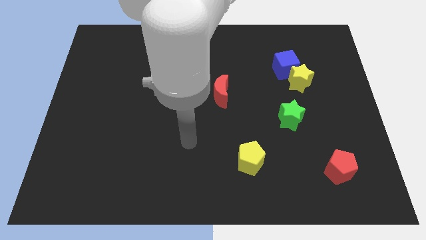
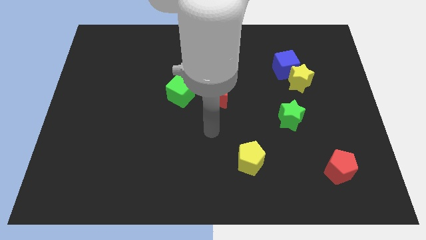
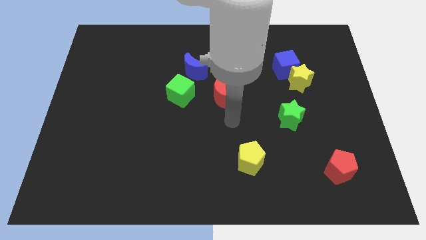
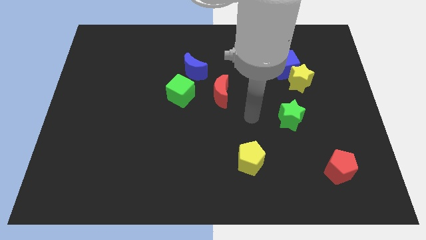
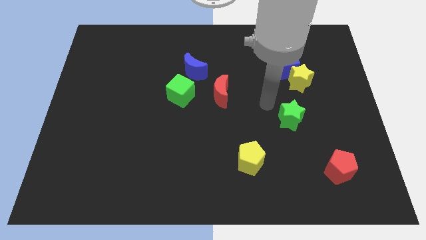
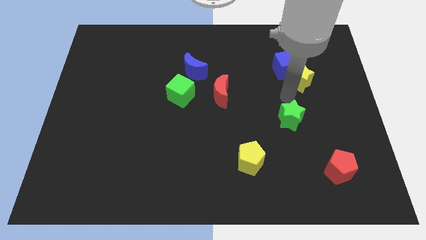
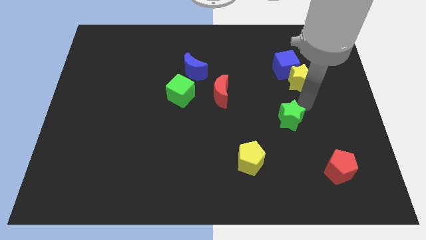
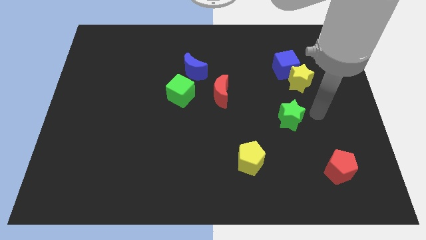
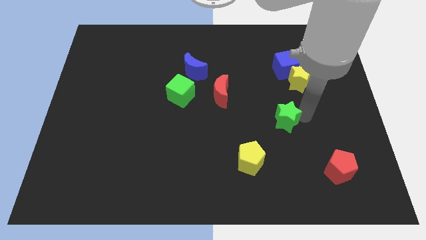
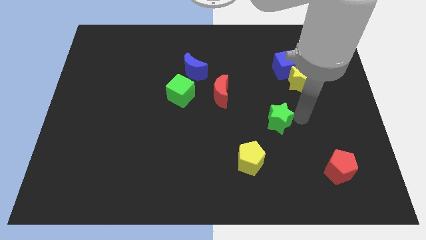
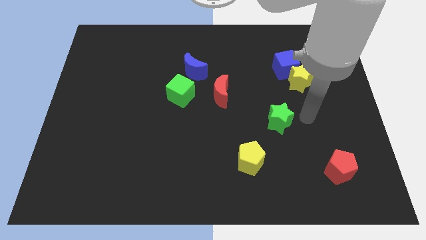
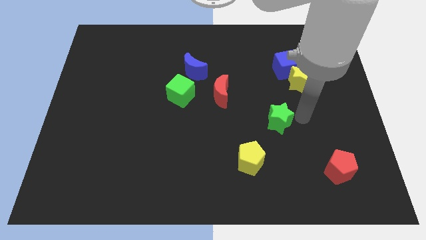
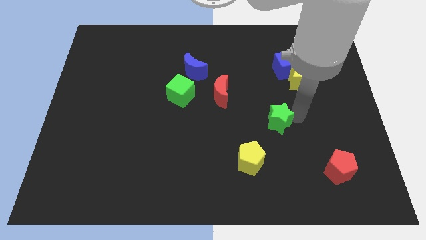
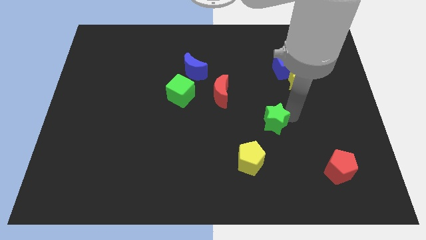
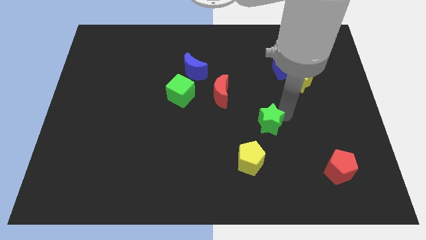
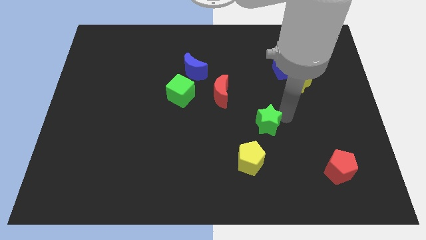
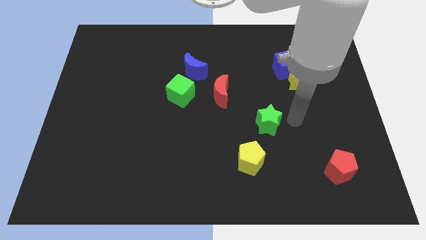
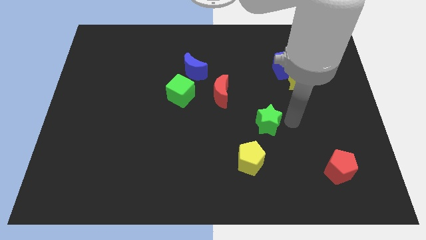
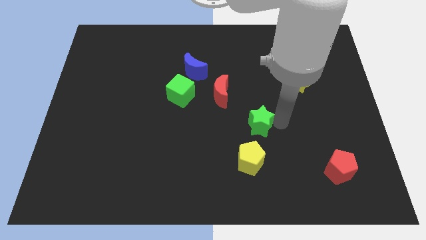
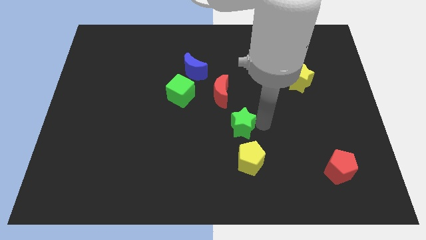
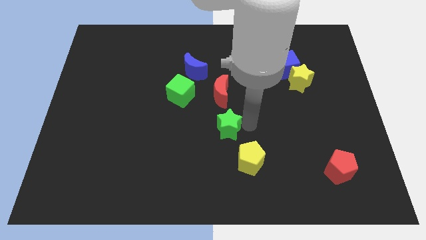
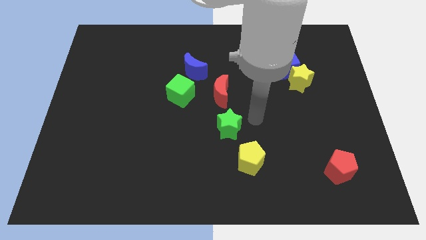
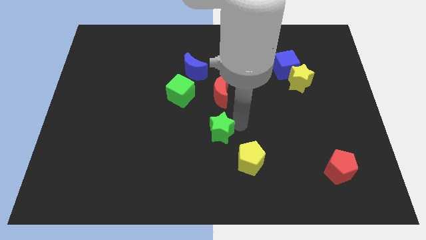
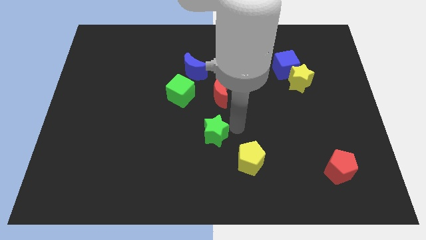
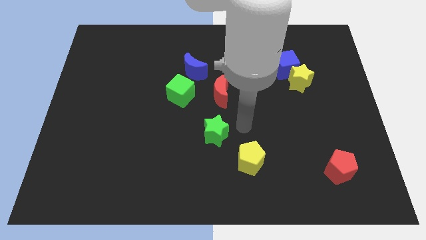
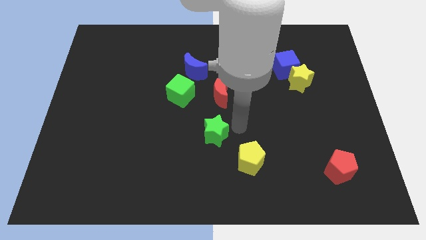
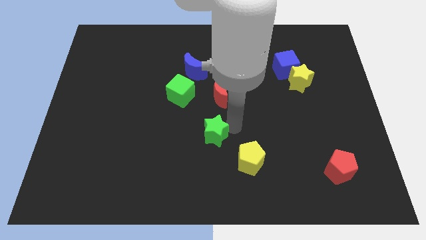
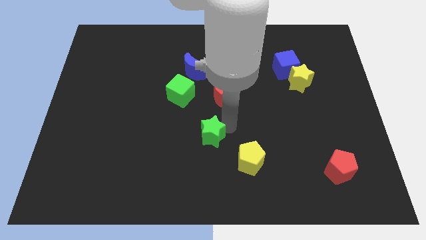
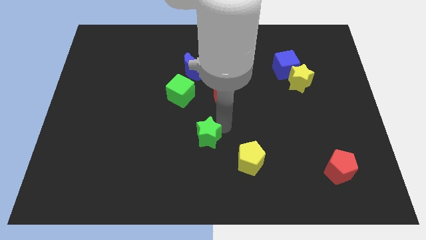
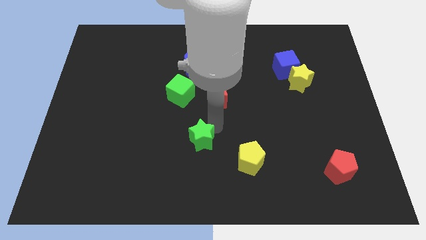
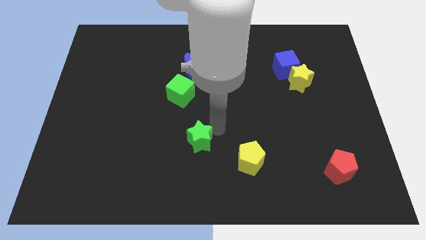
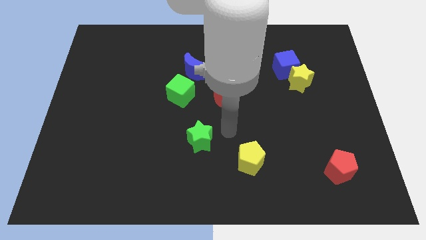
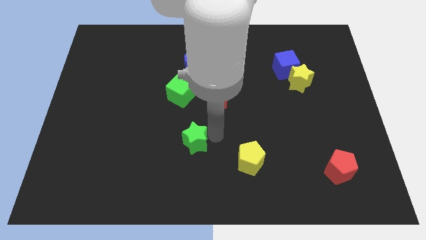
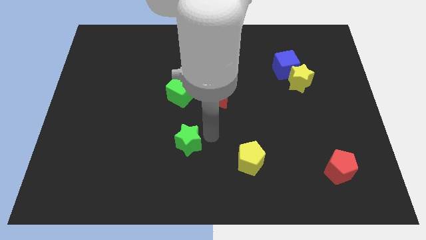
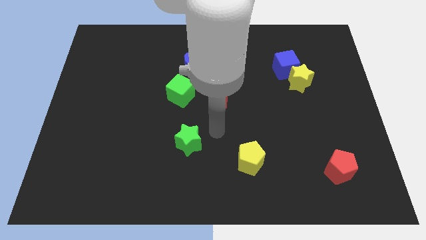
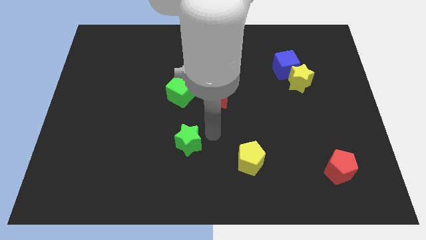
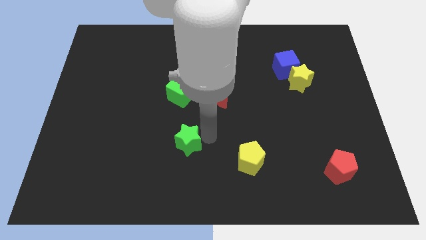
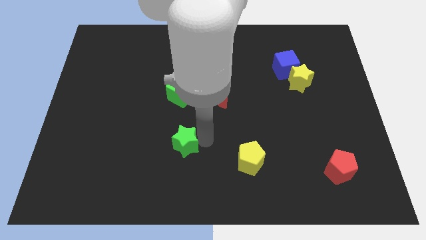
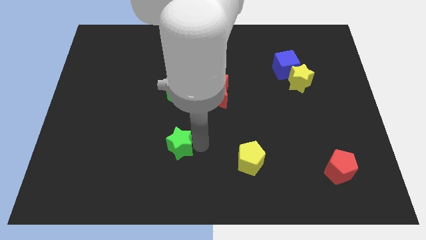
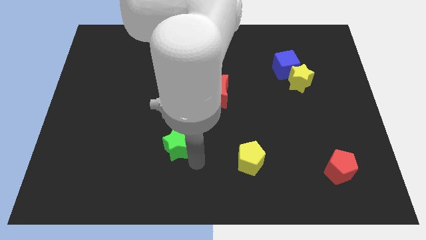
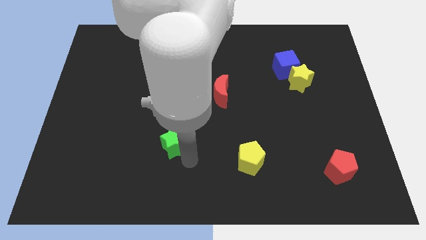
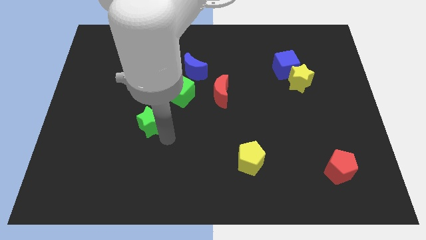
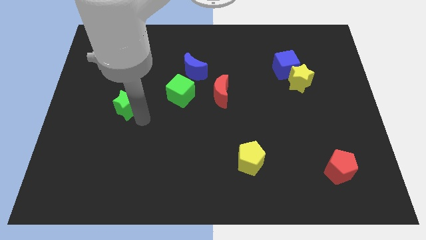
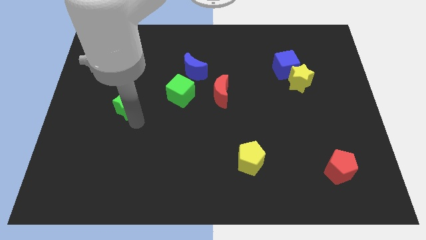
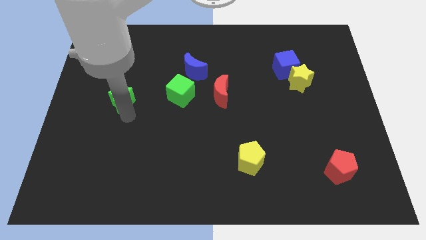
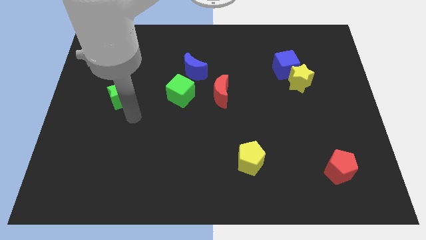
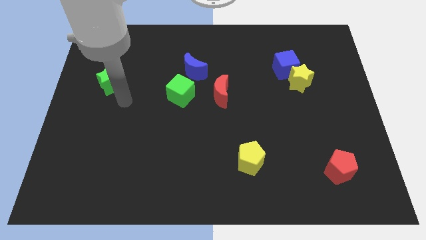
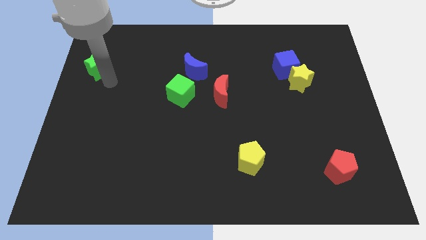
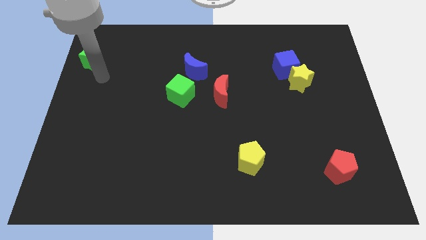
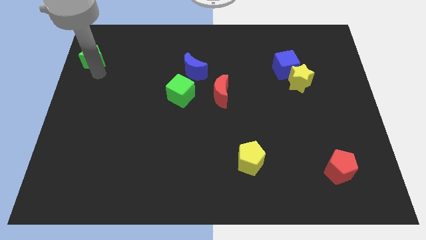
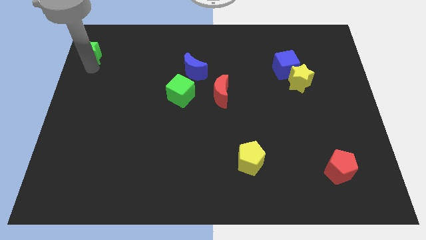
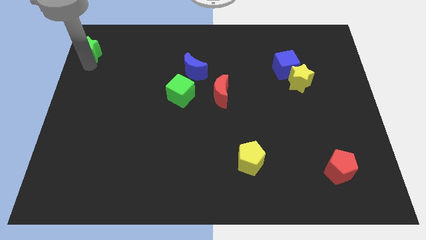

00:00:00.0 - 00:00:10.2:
put the green star to the top left of the board

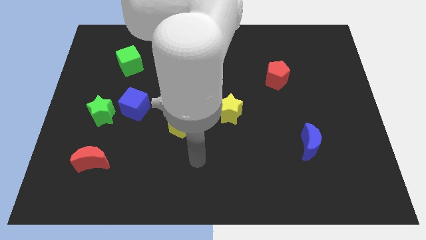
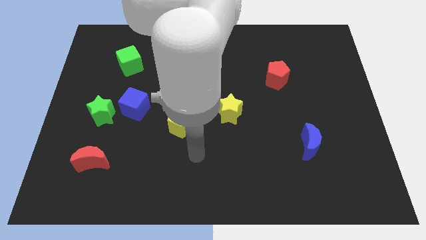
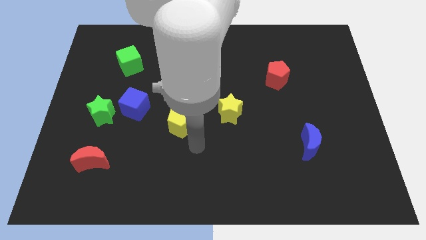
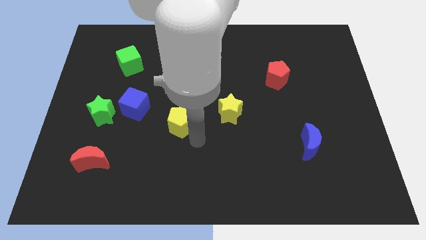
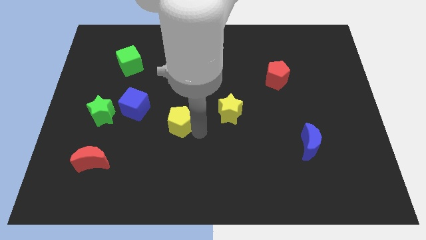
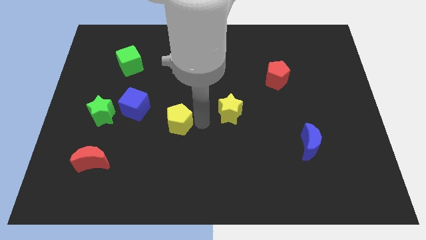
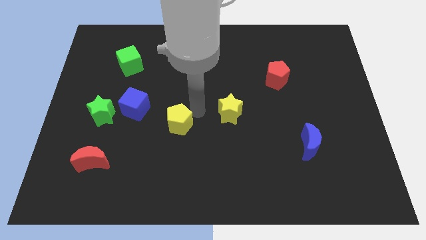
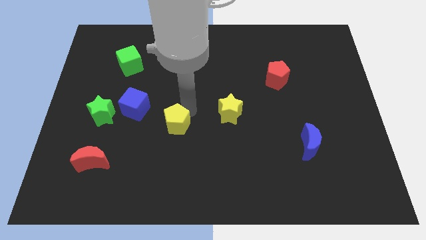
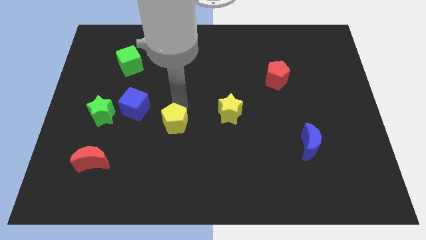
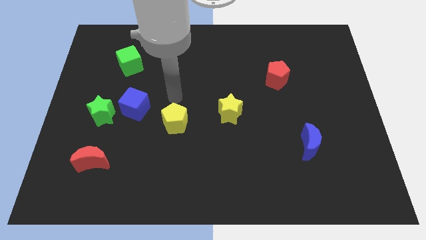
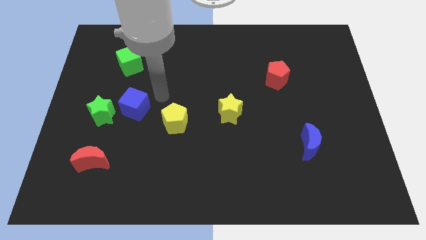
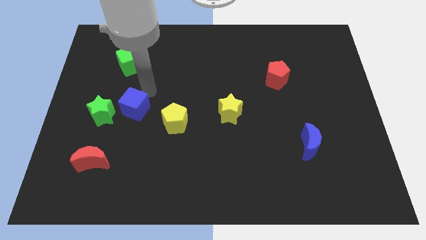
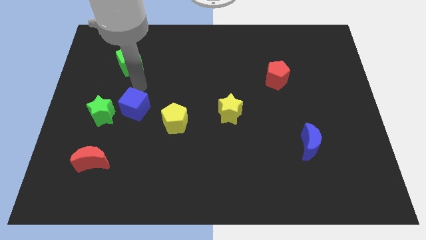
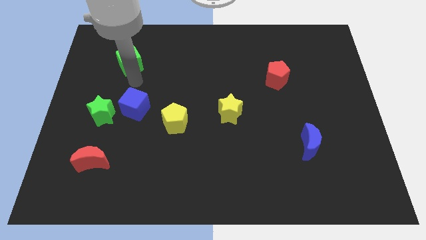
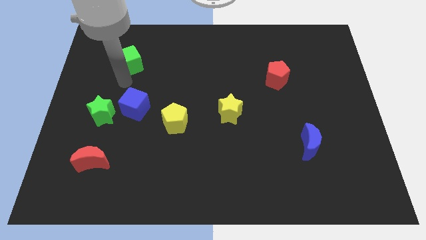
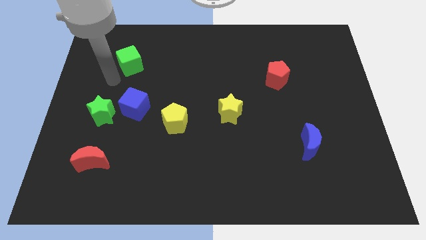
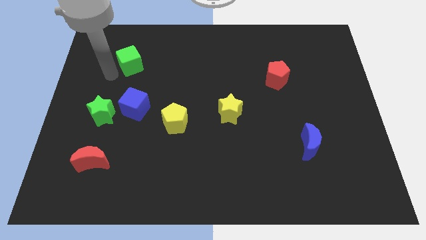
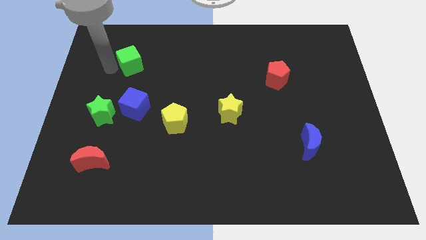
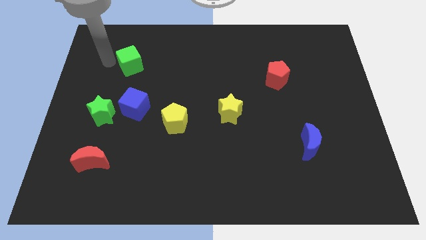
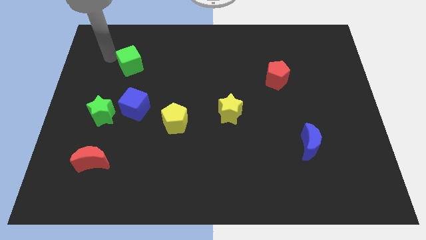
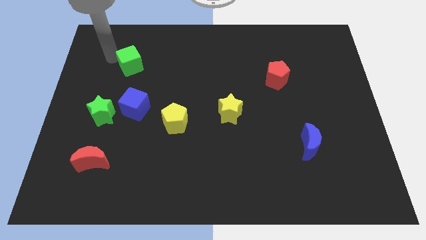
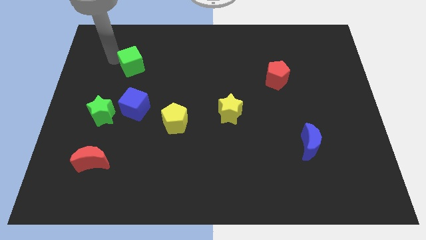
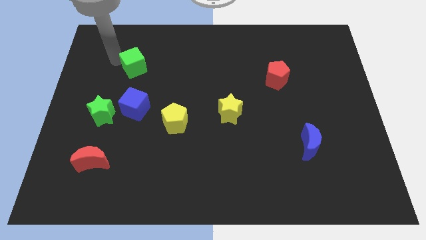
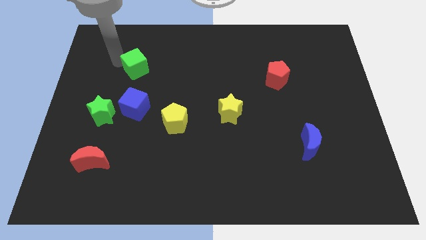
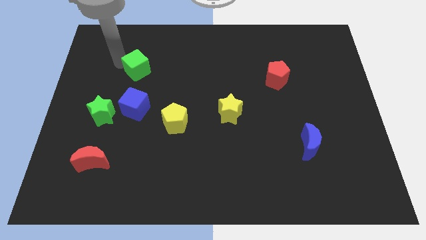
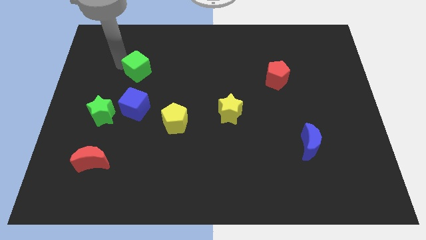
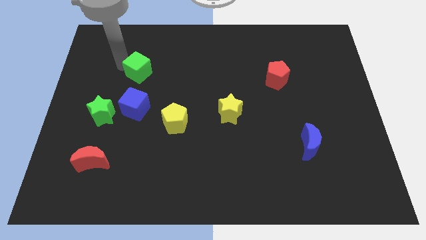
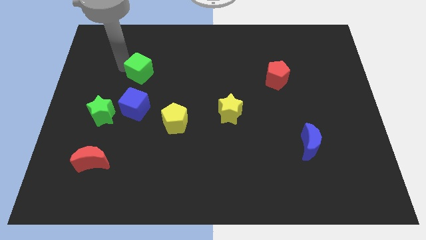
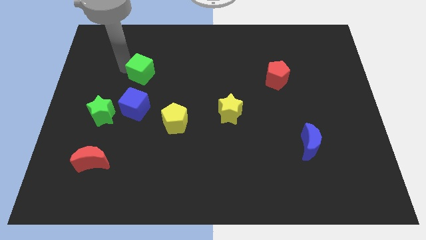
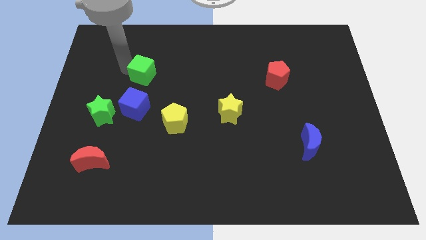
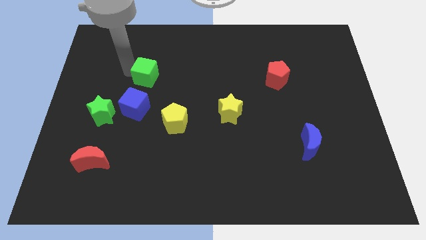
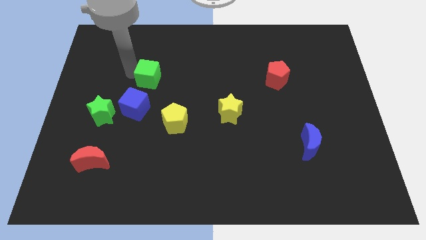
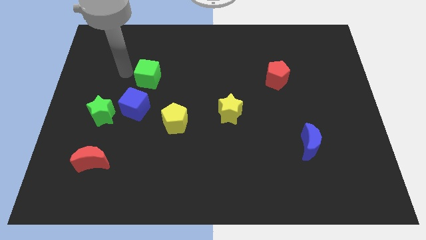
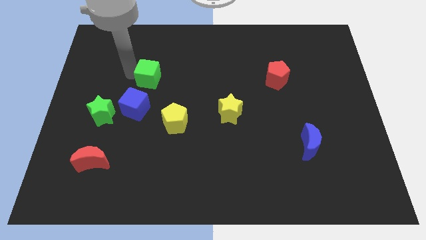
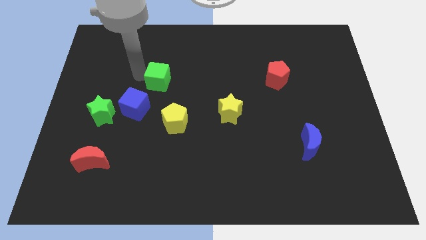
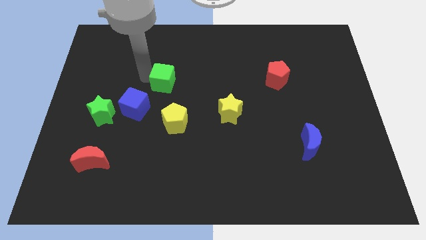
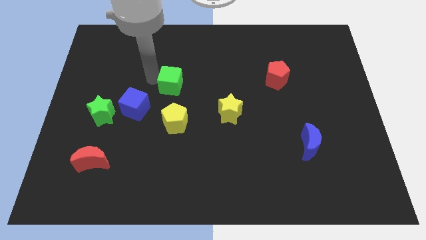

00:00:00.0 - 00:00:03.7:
put the green cube to the middle
